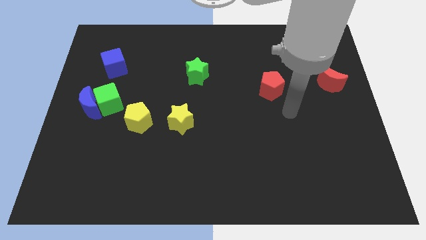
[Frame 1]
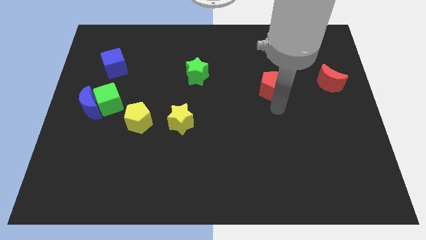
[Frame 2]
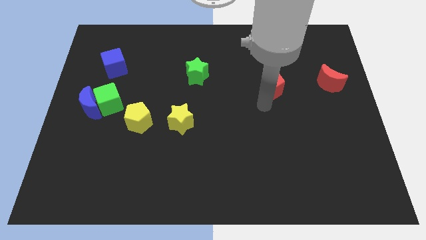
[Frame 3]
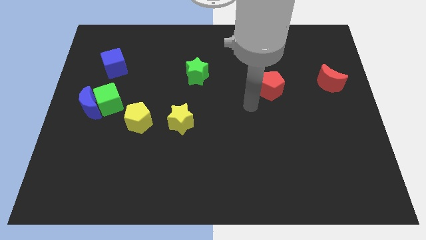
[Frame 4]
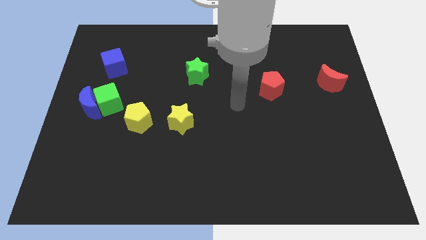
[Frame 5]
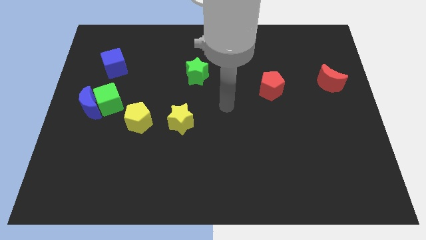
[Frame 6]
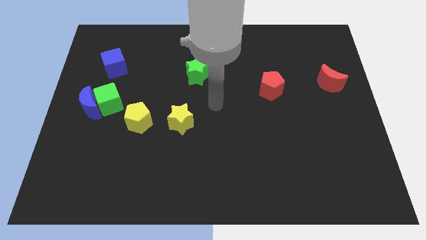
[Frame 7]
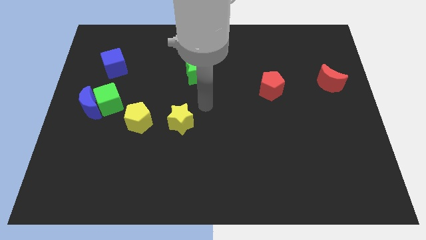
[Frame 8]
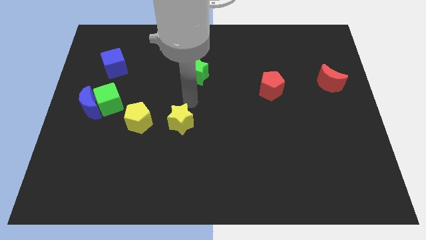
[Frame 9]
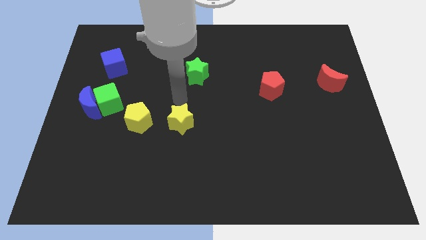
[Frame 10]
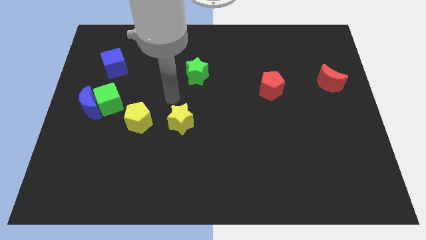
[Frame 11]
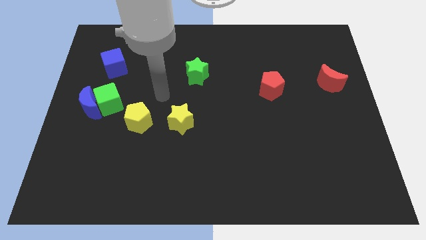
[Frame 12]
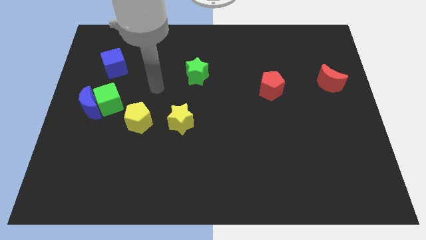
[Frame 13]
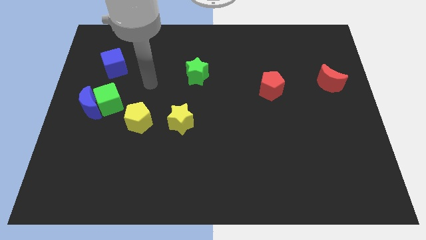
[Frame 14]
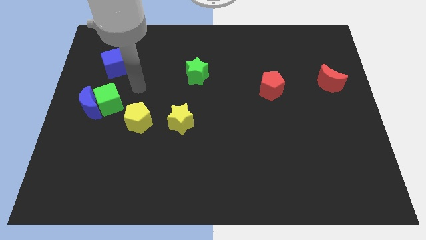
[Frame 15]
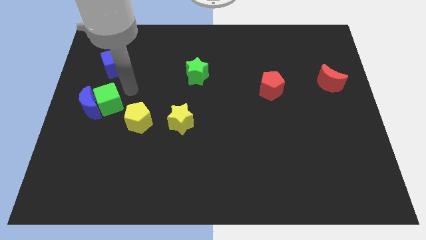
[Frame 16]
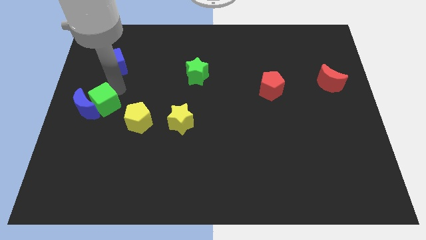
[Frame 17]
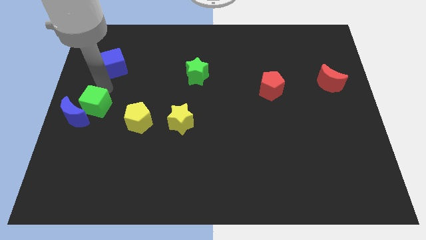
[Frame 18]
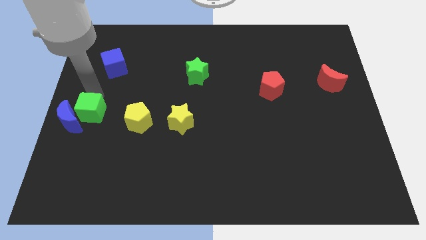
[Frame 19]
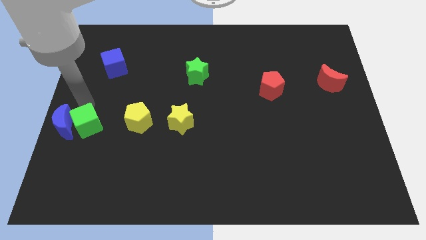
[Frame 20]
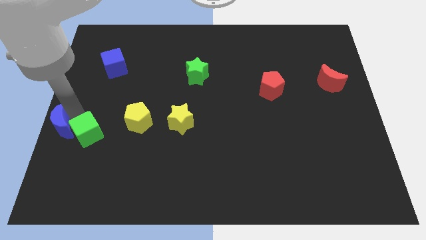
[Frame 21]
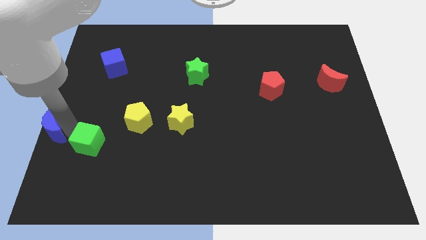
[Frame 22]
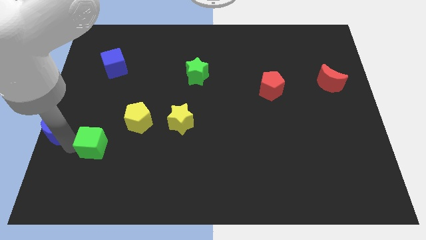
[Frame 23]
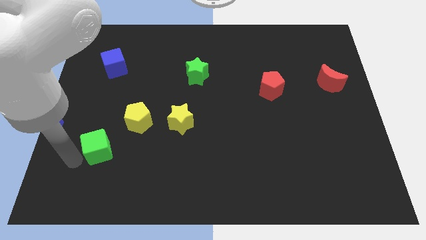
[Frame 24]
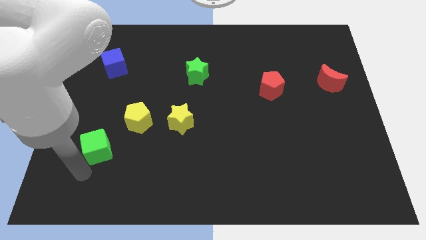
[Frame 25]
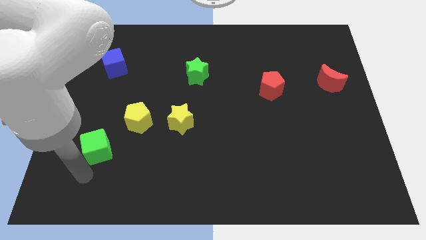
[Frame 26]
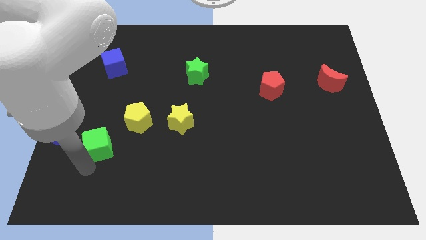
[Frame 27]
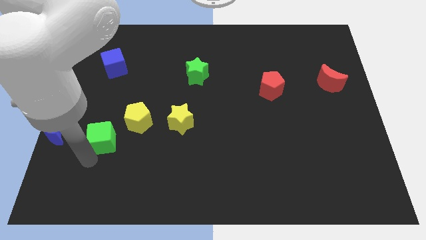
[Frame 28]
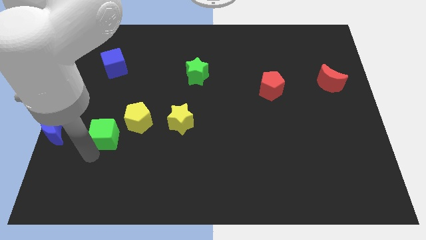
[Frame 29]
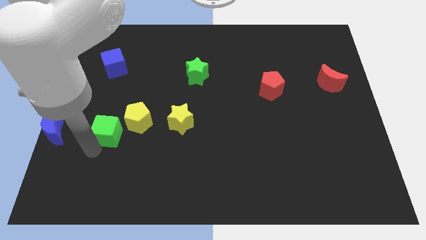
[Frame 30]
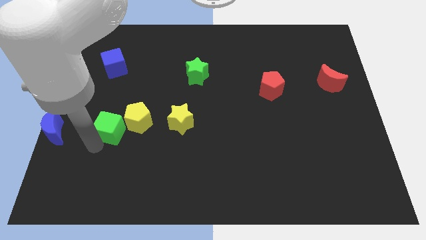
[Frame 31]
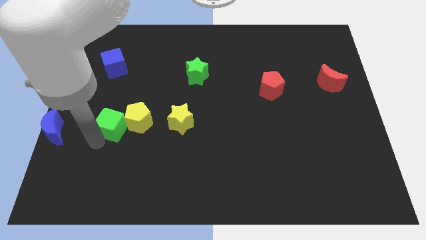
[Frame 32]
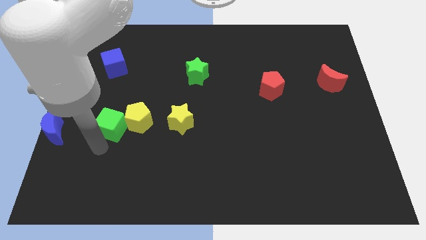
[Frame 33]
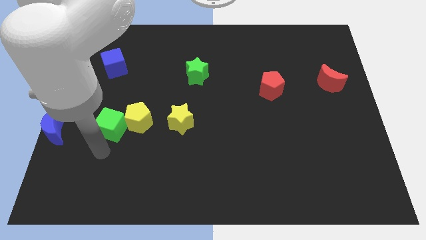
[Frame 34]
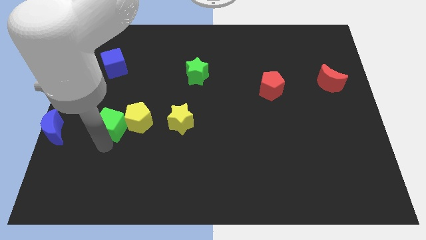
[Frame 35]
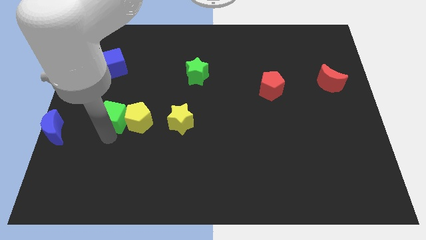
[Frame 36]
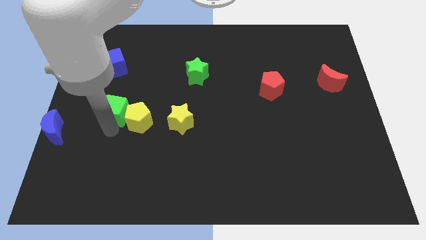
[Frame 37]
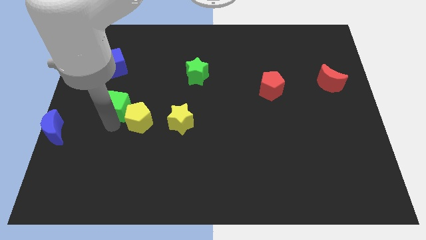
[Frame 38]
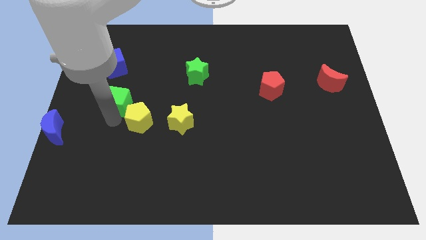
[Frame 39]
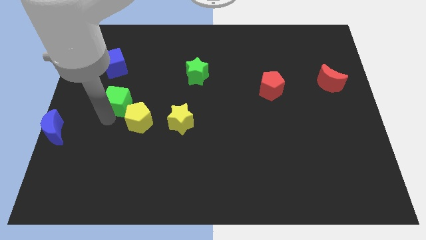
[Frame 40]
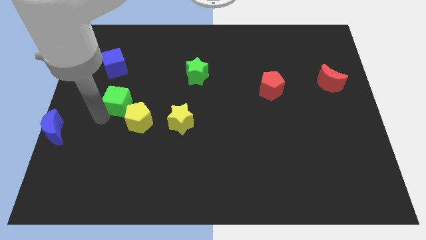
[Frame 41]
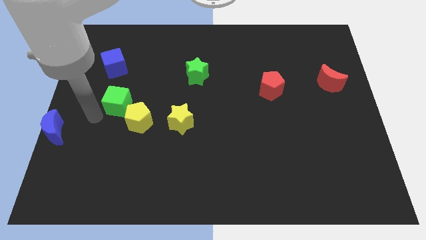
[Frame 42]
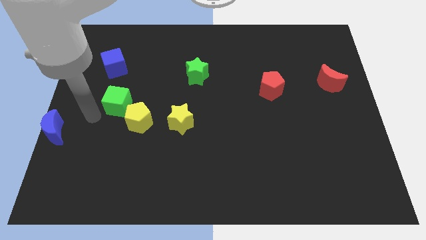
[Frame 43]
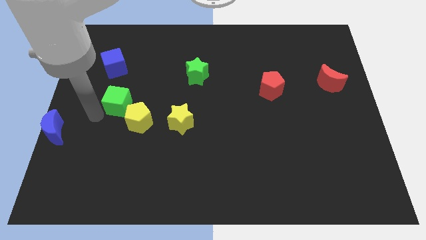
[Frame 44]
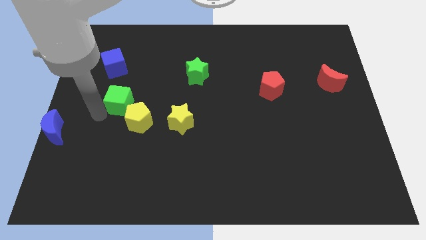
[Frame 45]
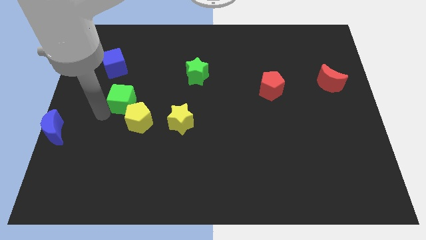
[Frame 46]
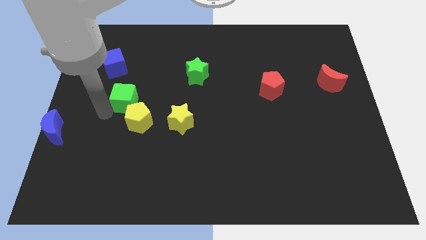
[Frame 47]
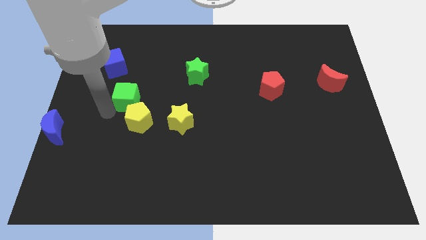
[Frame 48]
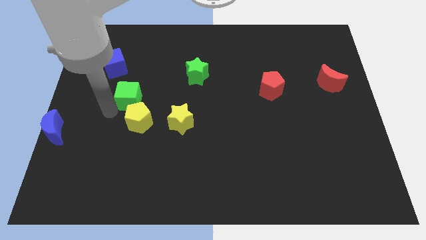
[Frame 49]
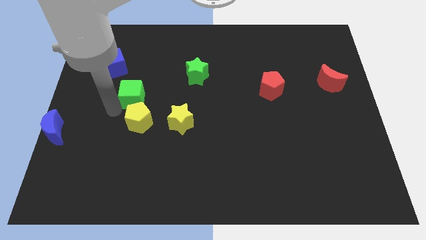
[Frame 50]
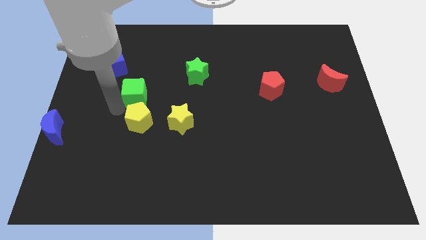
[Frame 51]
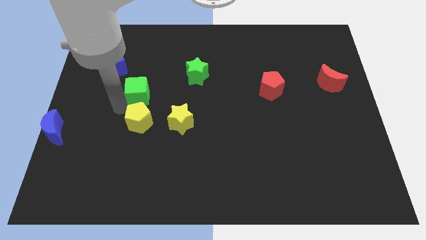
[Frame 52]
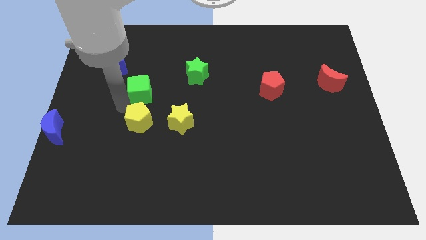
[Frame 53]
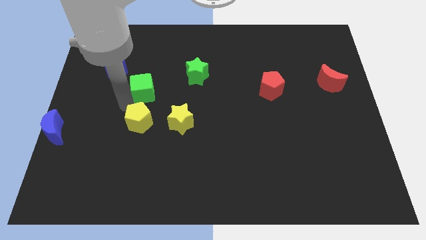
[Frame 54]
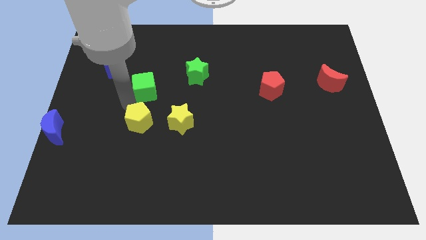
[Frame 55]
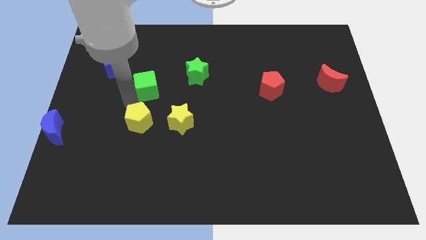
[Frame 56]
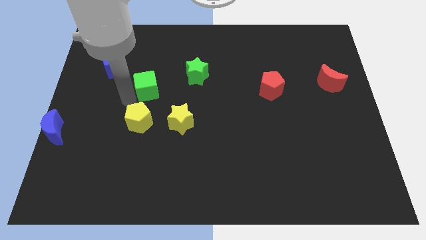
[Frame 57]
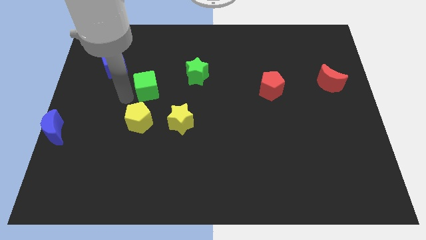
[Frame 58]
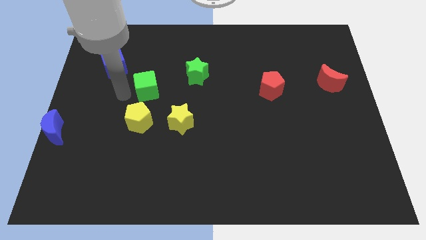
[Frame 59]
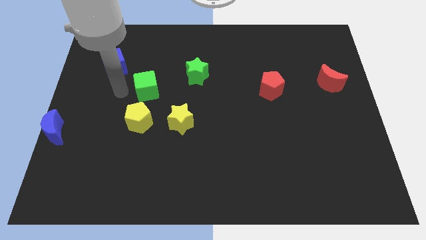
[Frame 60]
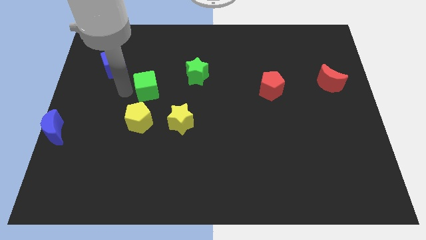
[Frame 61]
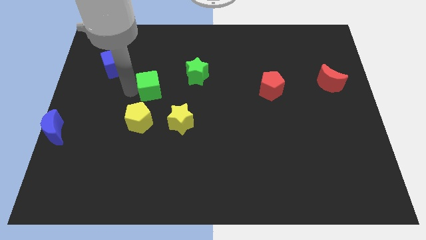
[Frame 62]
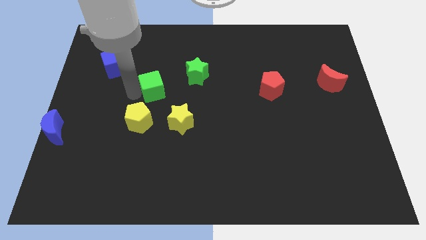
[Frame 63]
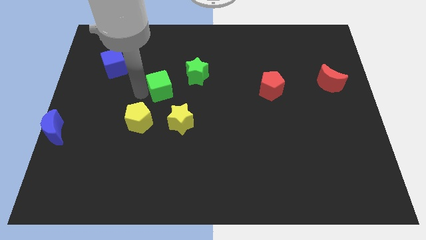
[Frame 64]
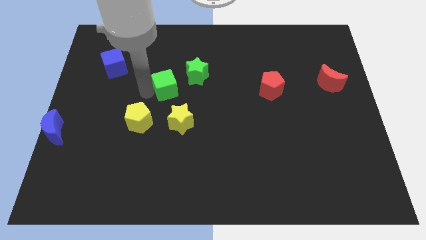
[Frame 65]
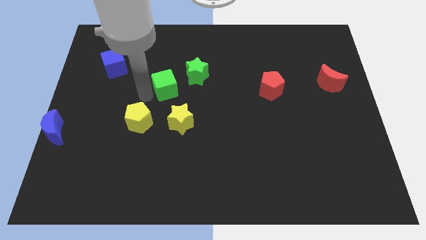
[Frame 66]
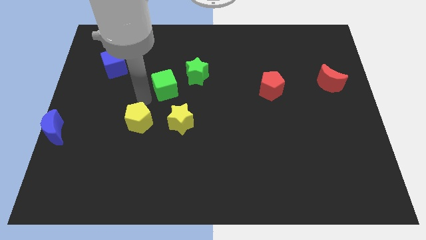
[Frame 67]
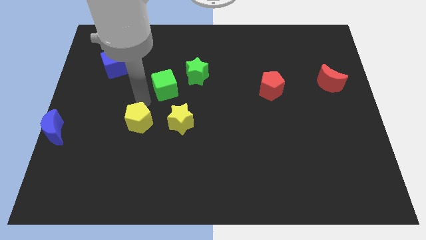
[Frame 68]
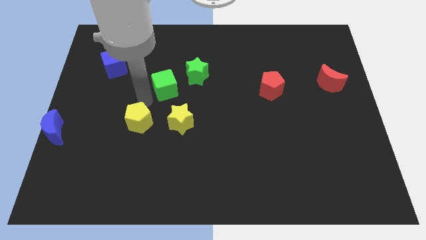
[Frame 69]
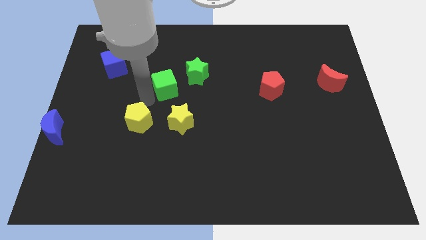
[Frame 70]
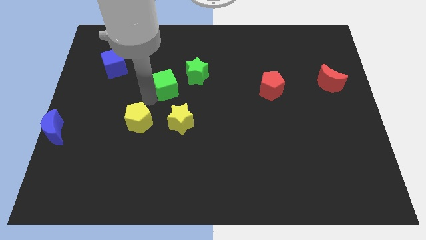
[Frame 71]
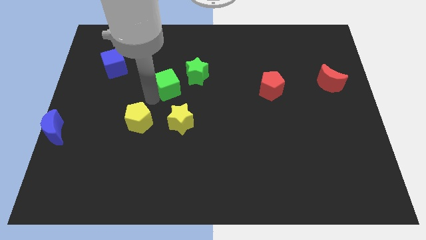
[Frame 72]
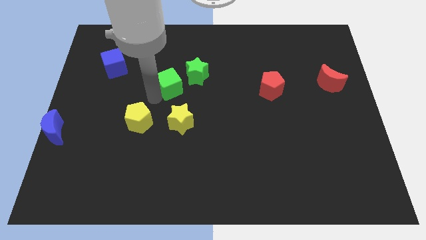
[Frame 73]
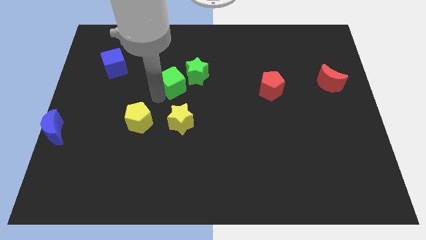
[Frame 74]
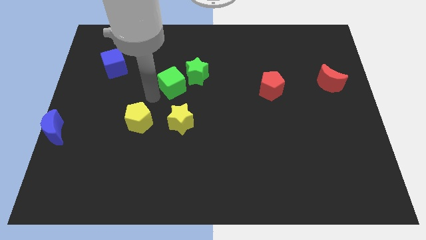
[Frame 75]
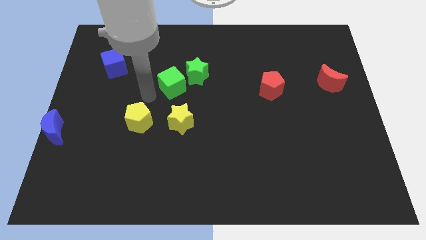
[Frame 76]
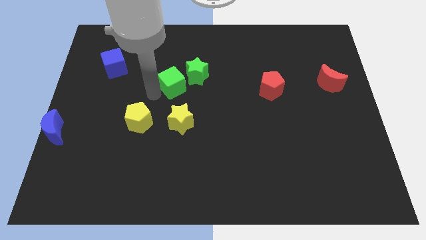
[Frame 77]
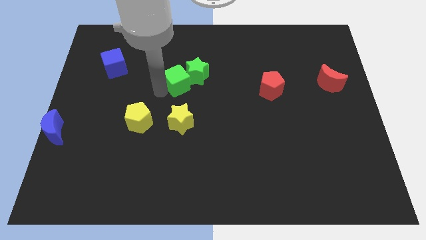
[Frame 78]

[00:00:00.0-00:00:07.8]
push the green cube next to the green star
